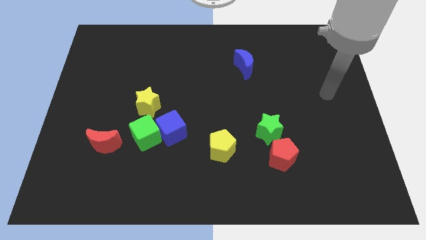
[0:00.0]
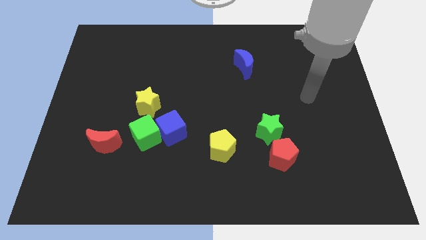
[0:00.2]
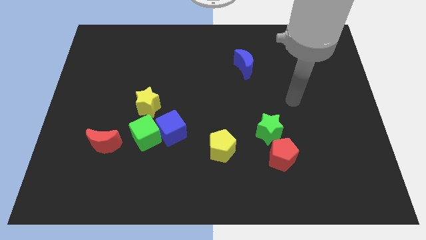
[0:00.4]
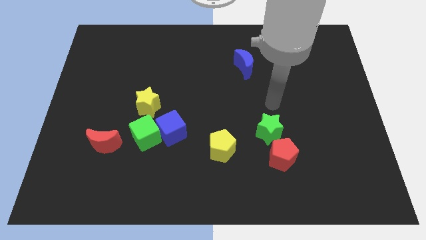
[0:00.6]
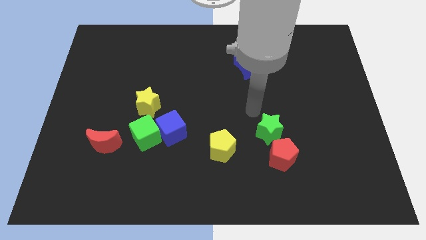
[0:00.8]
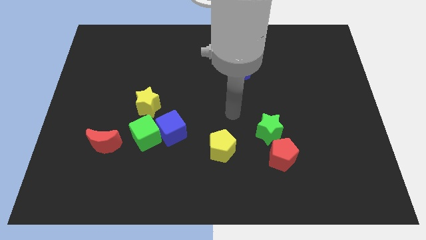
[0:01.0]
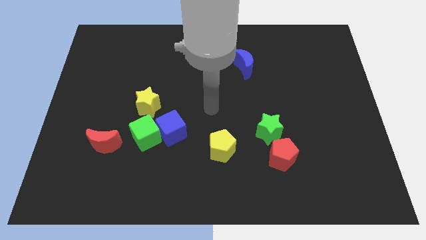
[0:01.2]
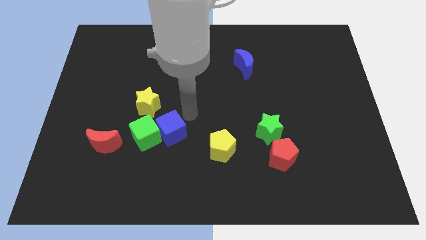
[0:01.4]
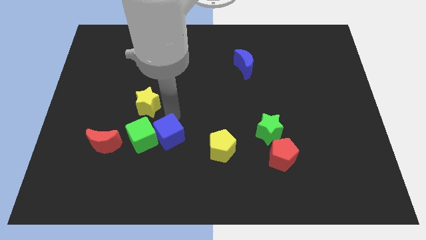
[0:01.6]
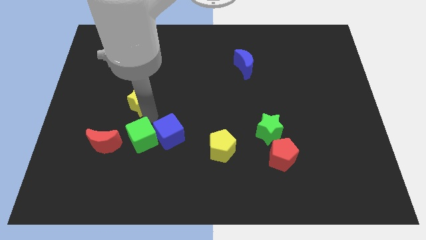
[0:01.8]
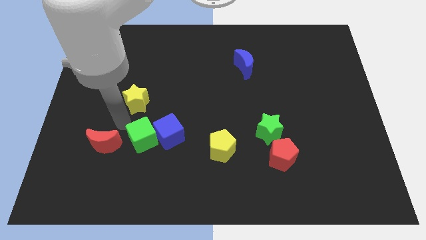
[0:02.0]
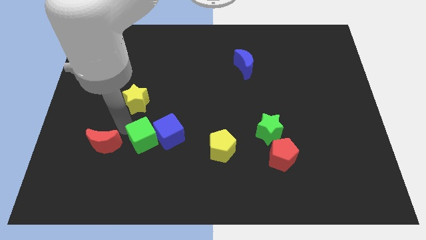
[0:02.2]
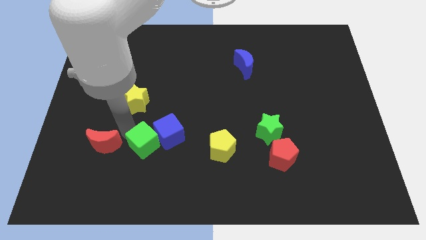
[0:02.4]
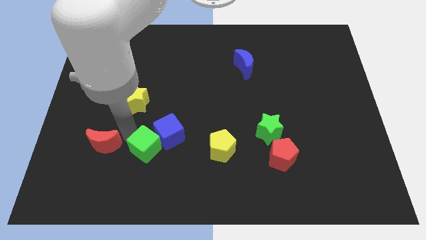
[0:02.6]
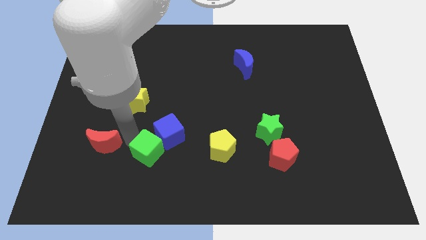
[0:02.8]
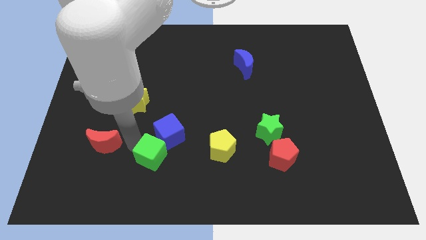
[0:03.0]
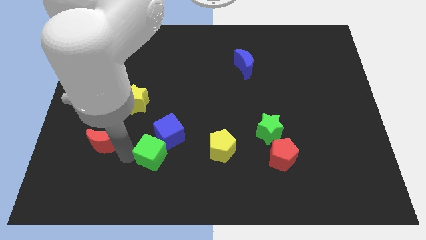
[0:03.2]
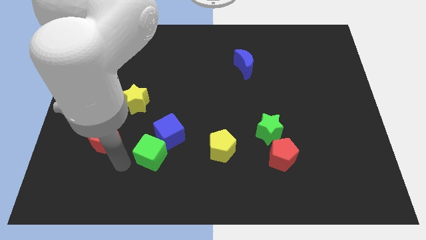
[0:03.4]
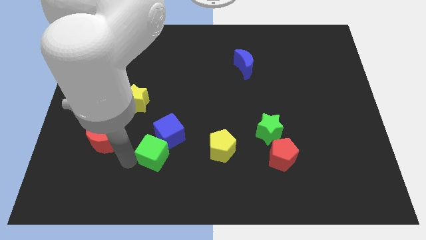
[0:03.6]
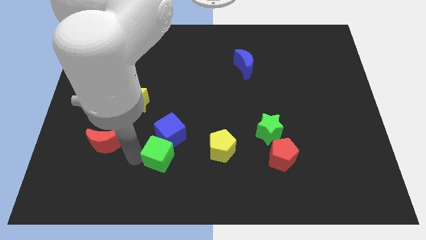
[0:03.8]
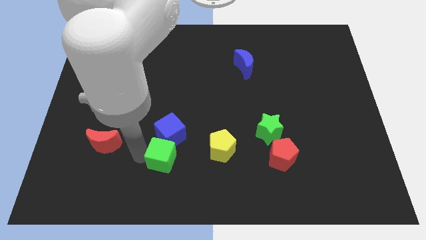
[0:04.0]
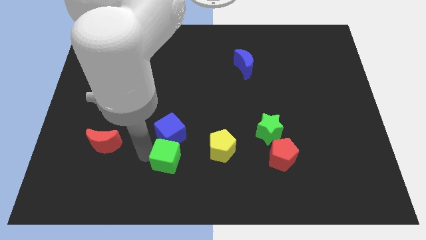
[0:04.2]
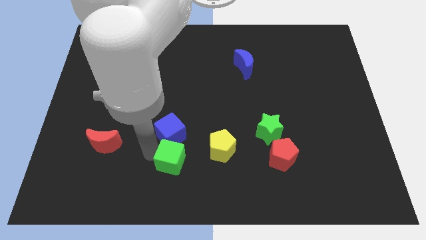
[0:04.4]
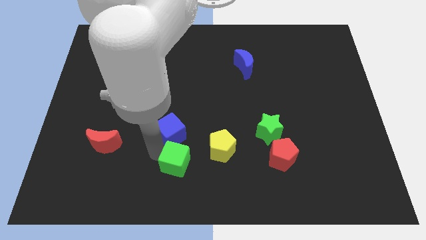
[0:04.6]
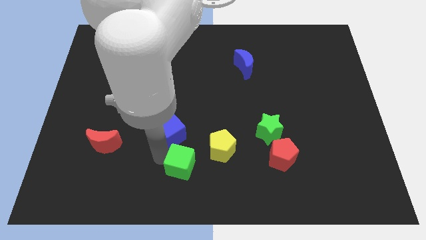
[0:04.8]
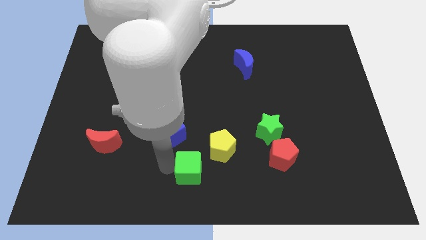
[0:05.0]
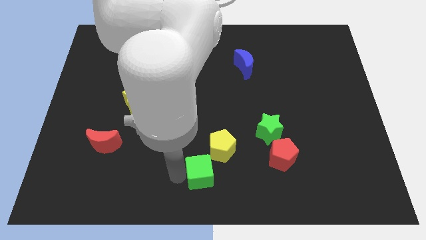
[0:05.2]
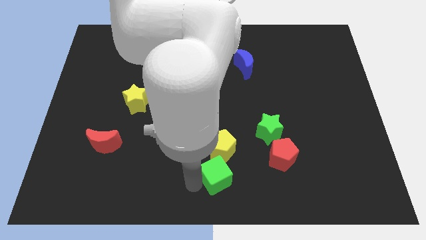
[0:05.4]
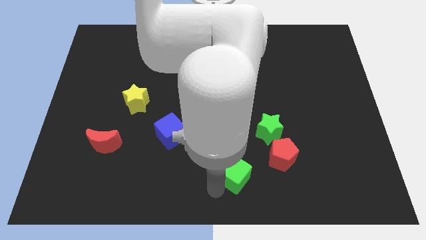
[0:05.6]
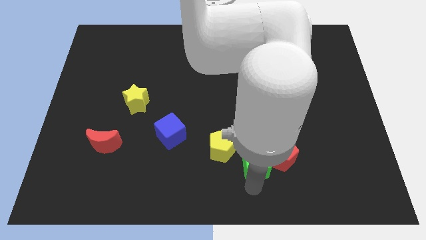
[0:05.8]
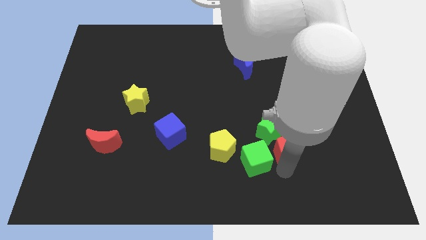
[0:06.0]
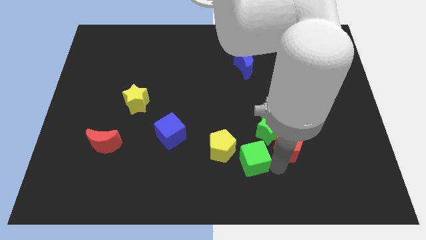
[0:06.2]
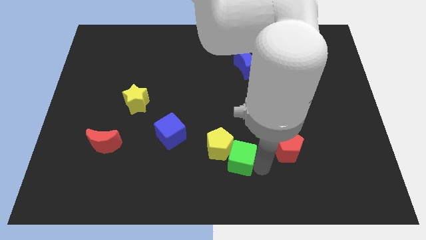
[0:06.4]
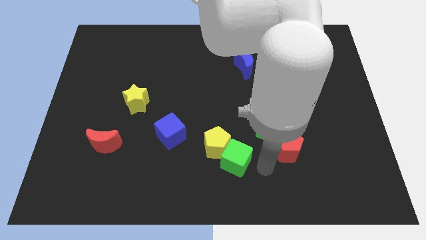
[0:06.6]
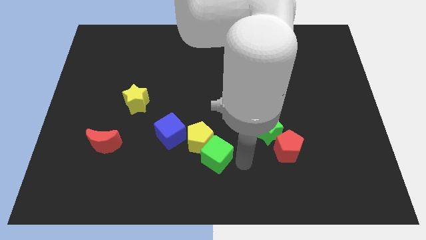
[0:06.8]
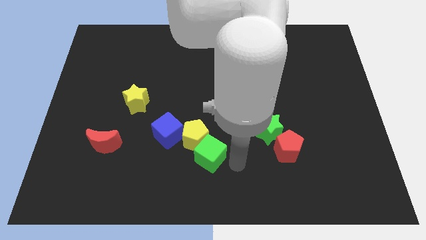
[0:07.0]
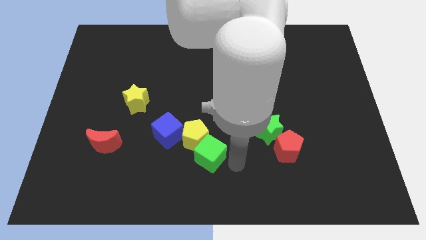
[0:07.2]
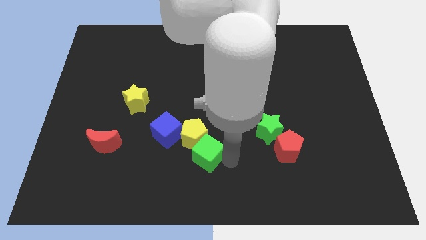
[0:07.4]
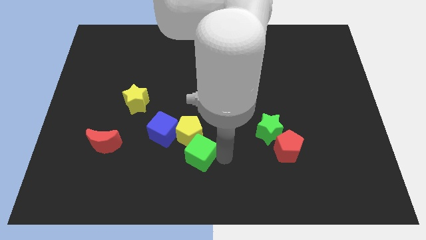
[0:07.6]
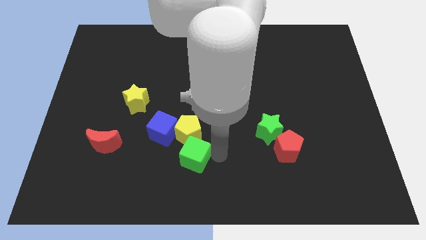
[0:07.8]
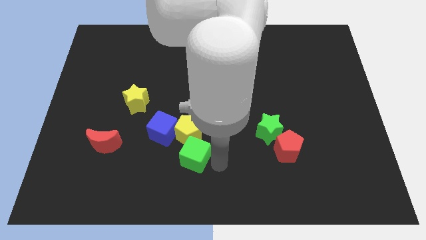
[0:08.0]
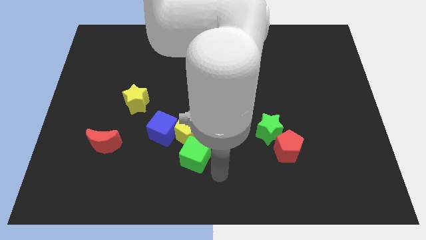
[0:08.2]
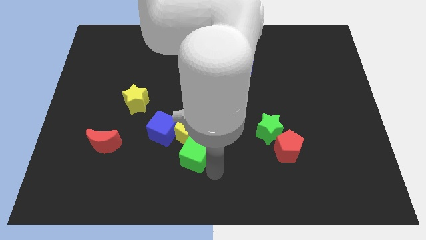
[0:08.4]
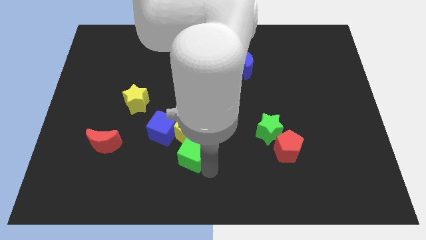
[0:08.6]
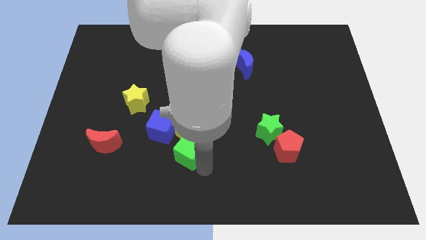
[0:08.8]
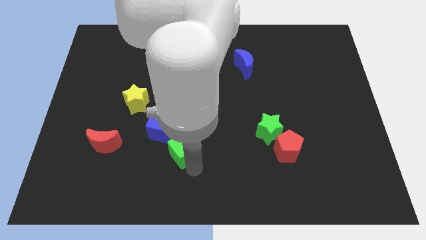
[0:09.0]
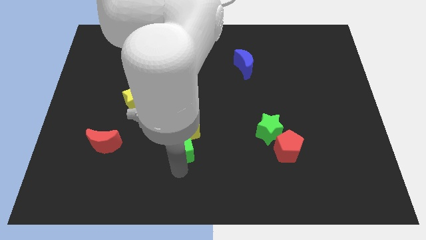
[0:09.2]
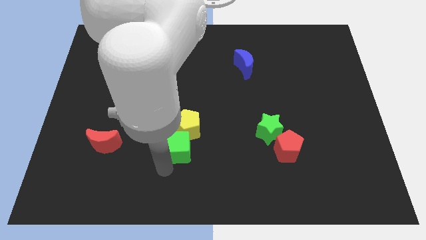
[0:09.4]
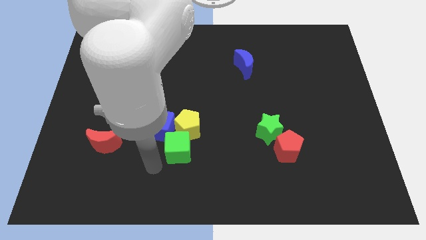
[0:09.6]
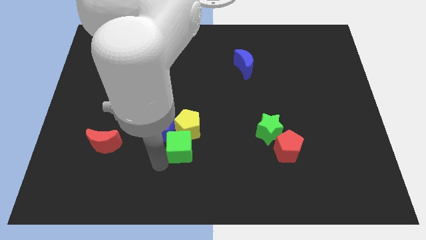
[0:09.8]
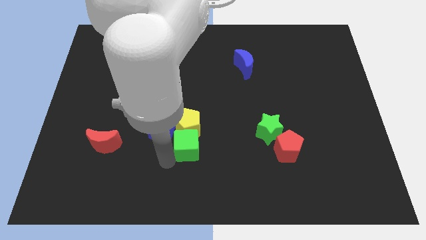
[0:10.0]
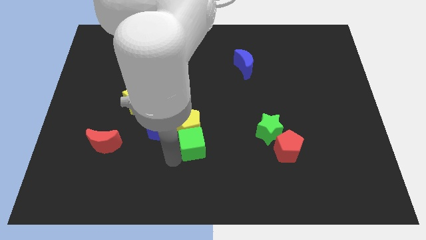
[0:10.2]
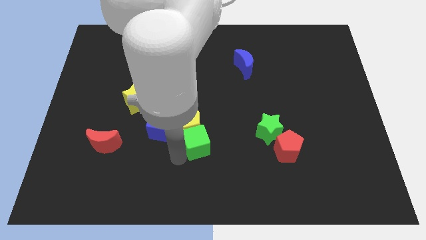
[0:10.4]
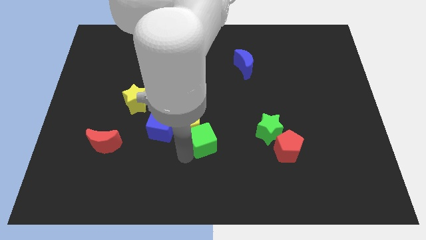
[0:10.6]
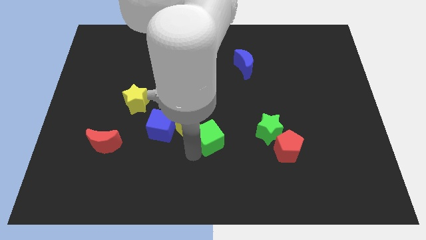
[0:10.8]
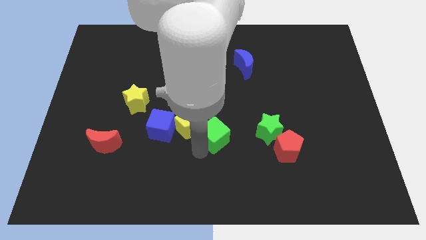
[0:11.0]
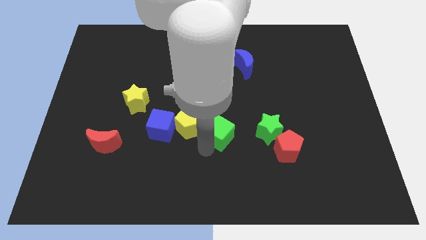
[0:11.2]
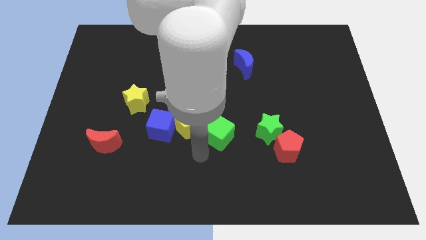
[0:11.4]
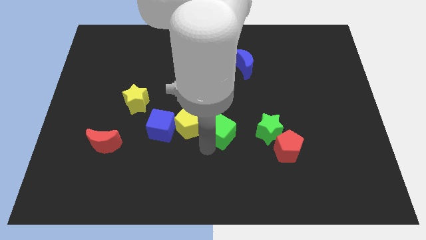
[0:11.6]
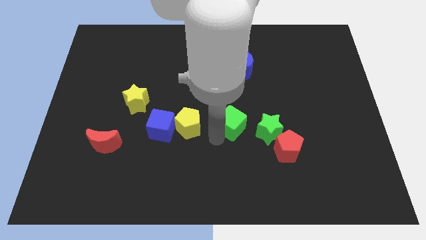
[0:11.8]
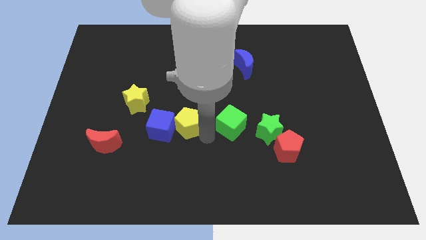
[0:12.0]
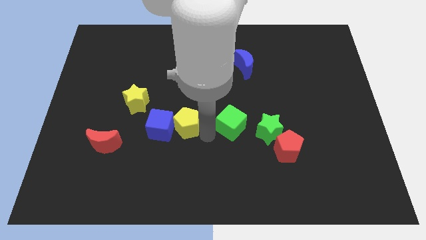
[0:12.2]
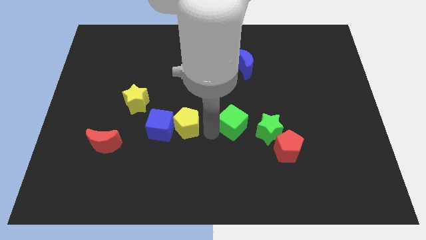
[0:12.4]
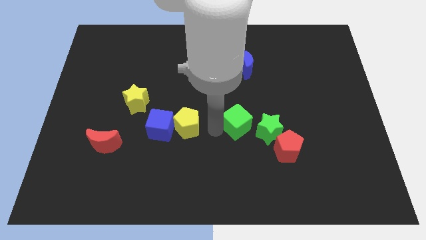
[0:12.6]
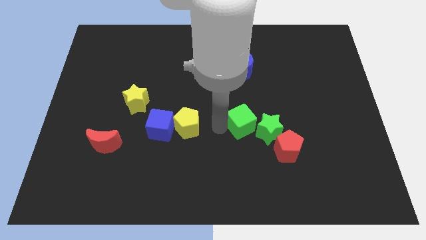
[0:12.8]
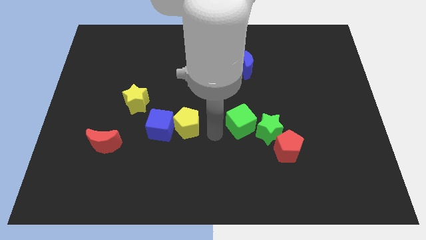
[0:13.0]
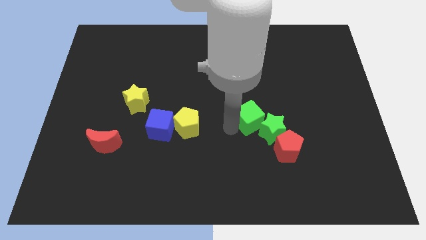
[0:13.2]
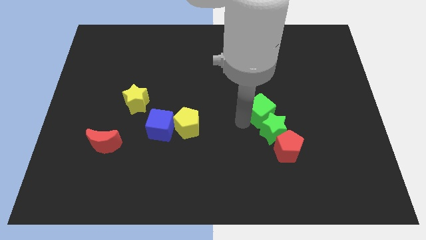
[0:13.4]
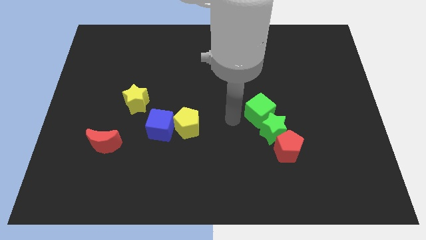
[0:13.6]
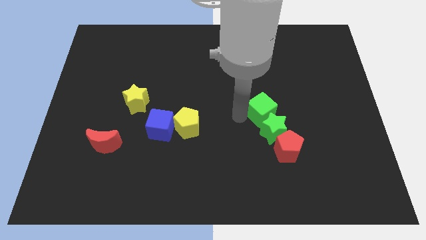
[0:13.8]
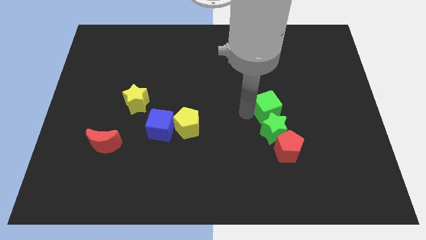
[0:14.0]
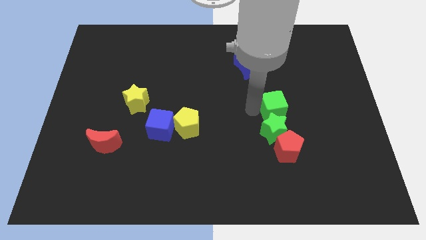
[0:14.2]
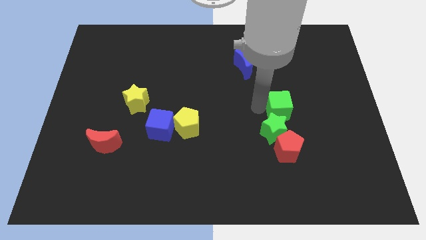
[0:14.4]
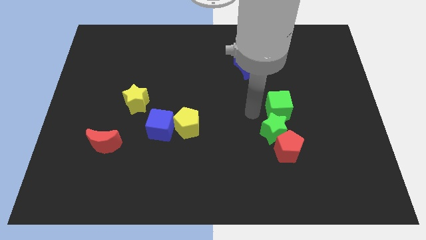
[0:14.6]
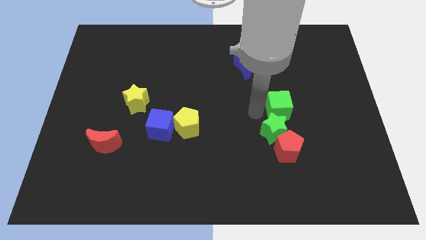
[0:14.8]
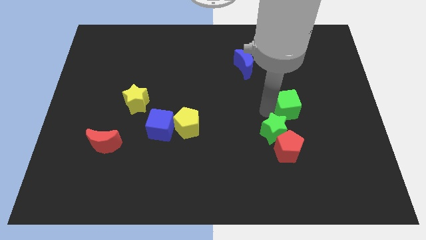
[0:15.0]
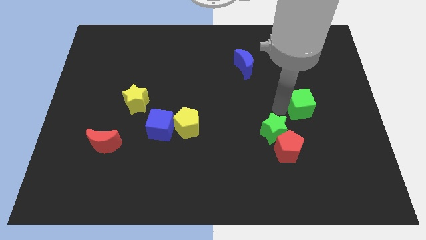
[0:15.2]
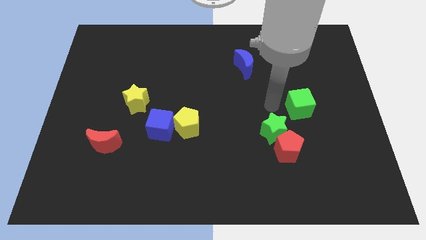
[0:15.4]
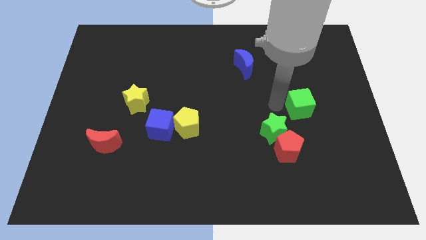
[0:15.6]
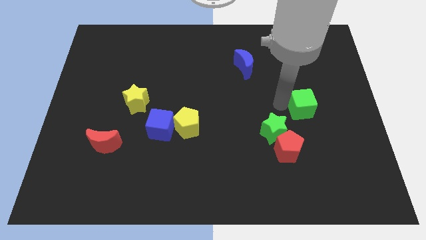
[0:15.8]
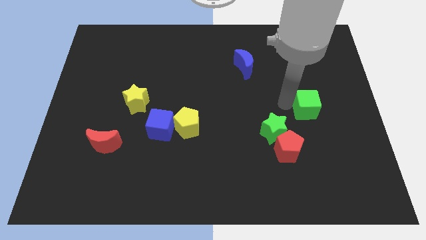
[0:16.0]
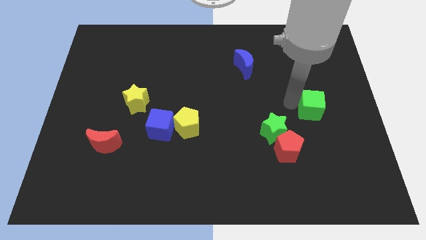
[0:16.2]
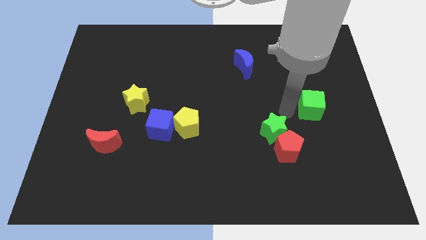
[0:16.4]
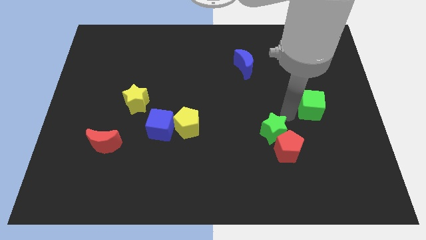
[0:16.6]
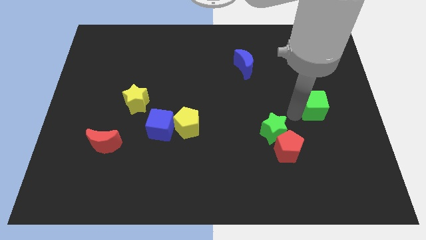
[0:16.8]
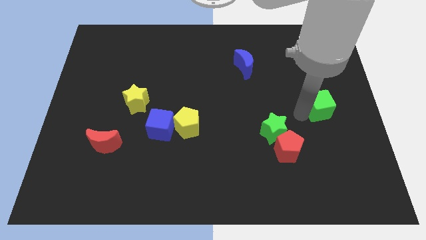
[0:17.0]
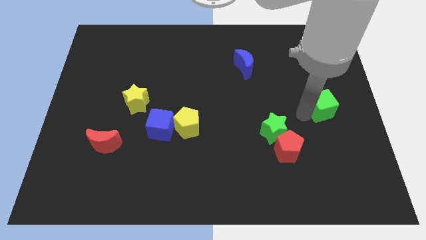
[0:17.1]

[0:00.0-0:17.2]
move the green cube to the center right
